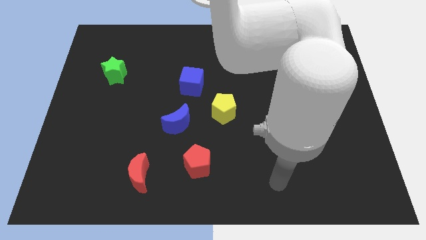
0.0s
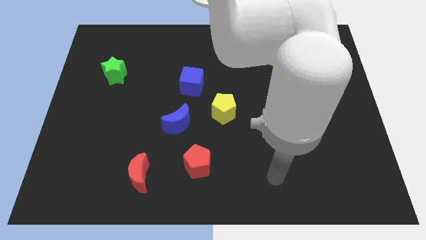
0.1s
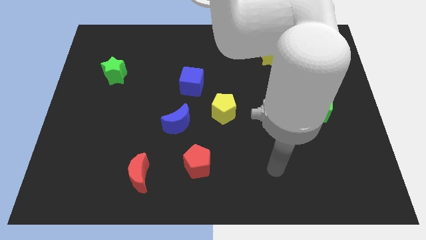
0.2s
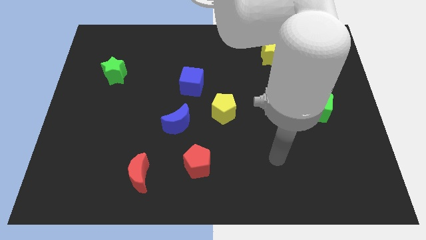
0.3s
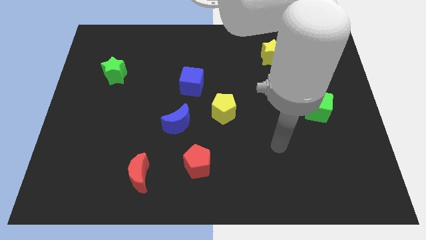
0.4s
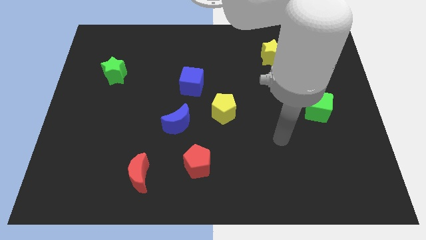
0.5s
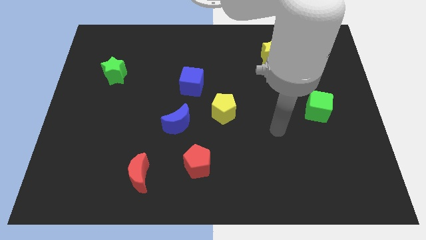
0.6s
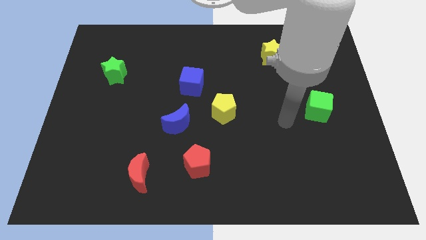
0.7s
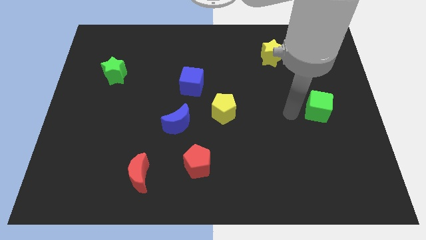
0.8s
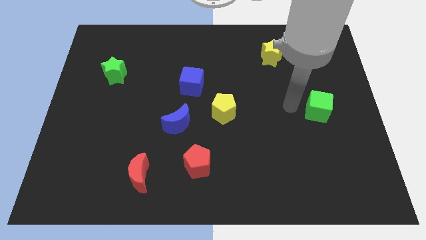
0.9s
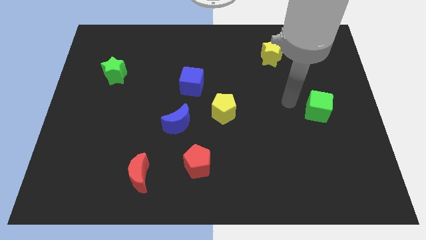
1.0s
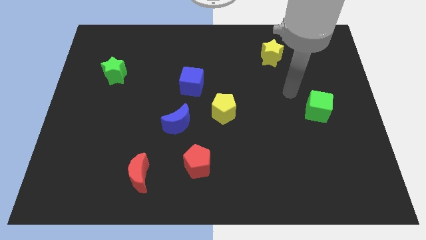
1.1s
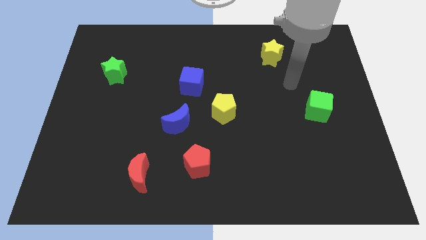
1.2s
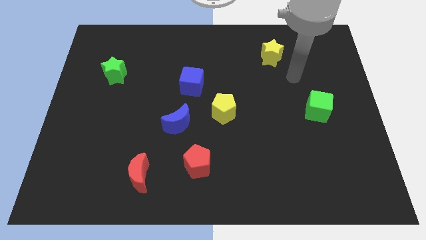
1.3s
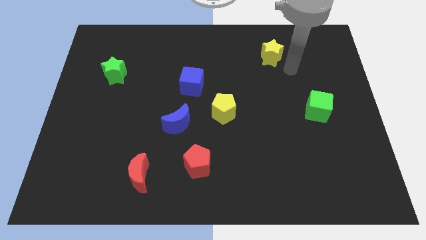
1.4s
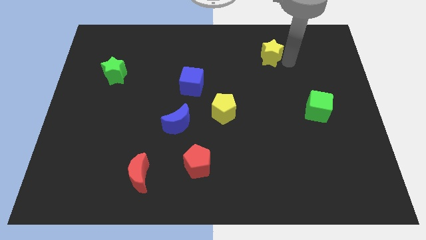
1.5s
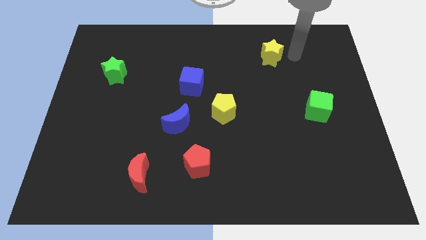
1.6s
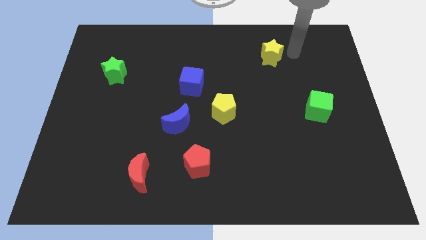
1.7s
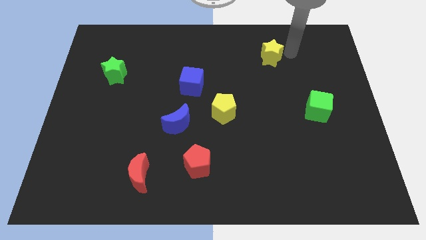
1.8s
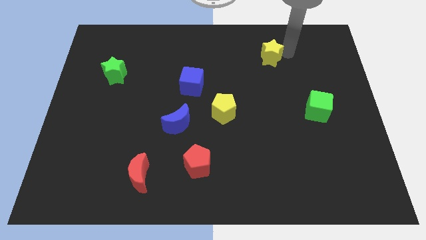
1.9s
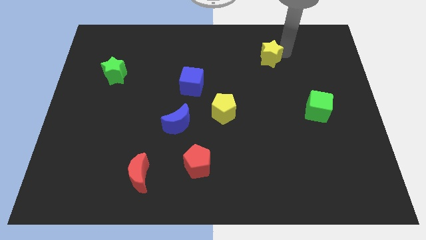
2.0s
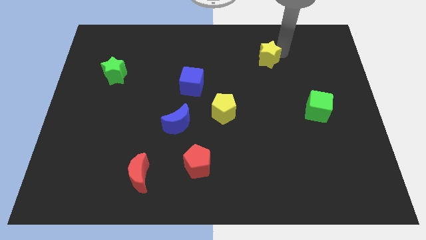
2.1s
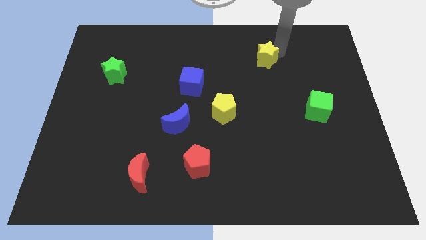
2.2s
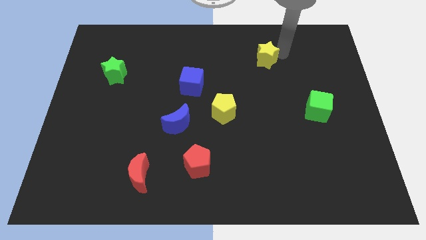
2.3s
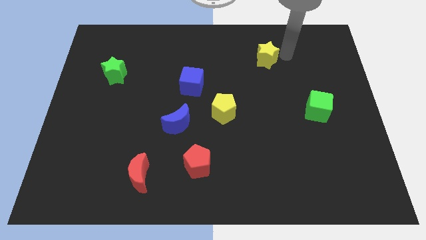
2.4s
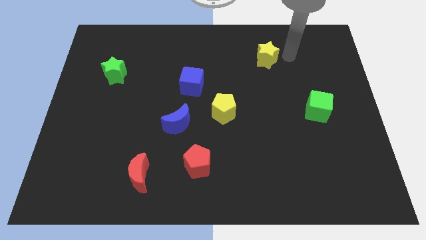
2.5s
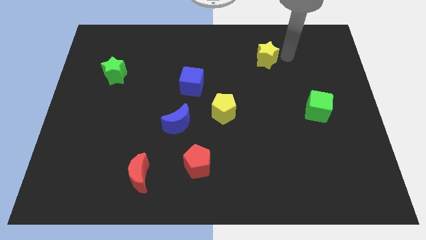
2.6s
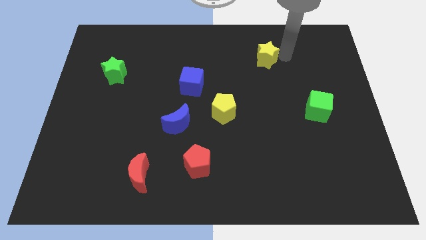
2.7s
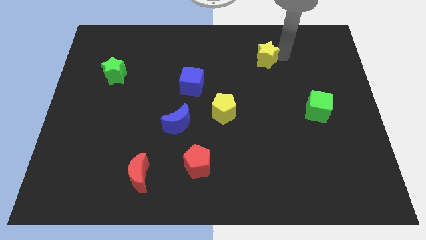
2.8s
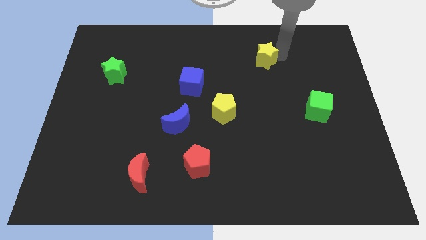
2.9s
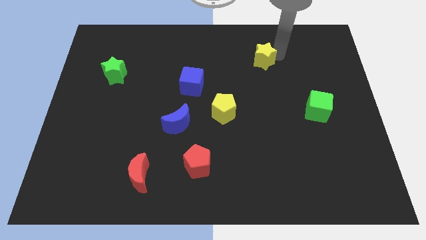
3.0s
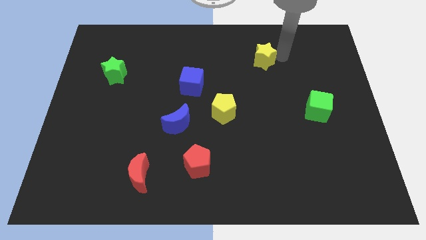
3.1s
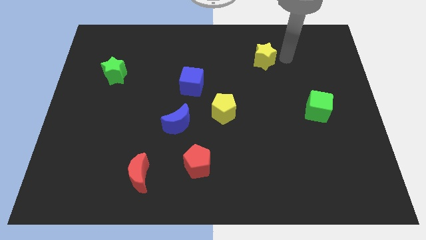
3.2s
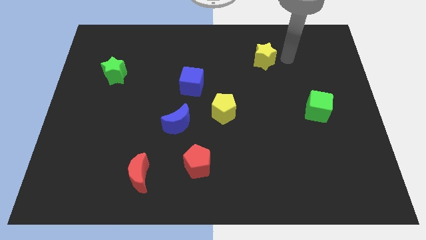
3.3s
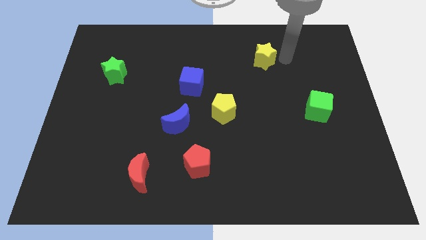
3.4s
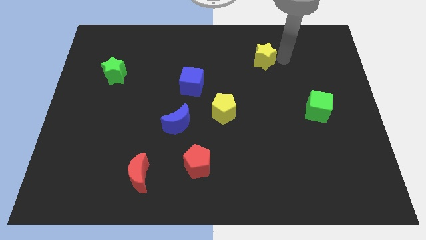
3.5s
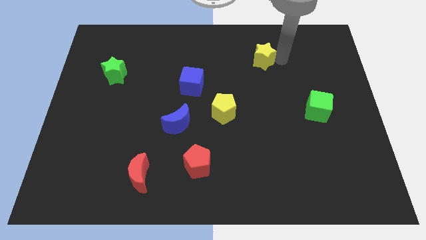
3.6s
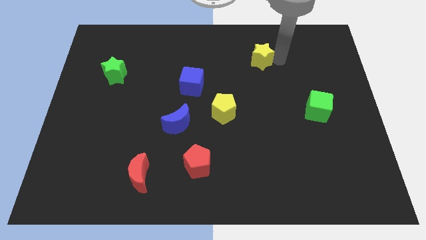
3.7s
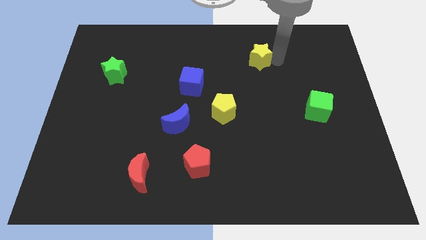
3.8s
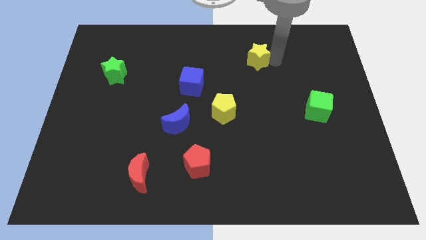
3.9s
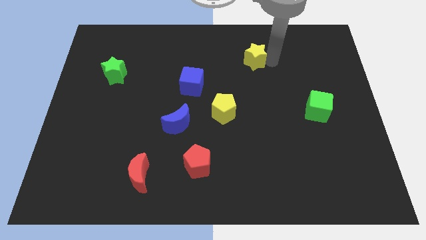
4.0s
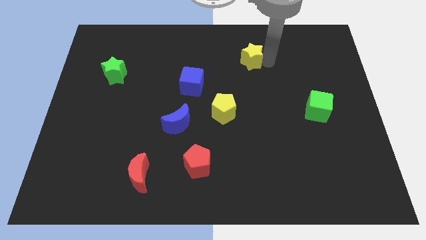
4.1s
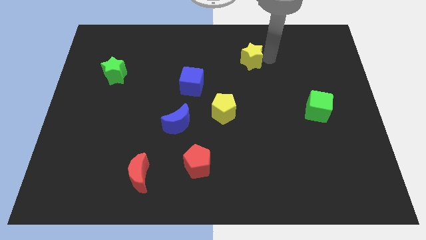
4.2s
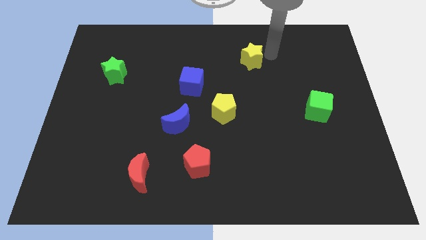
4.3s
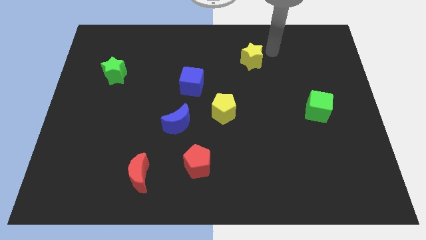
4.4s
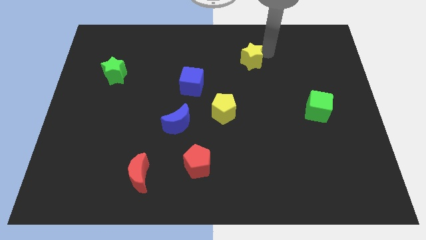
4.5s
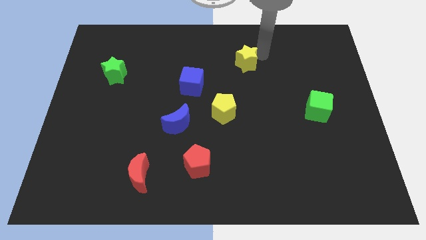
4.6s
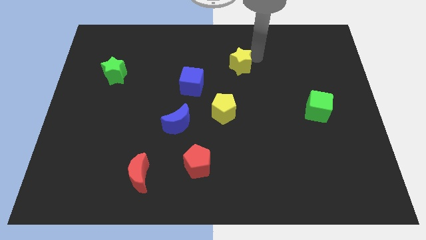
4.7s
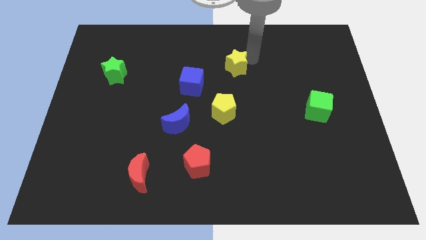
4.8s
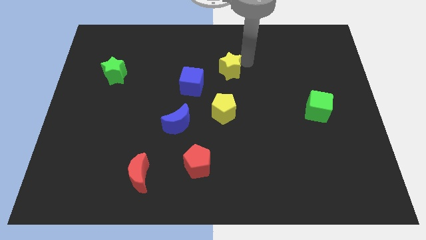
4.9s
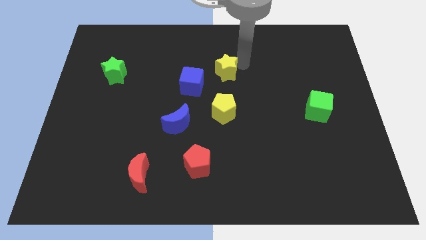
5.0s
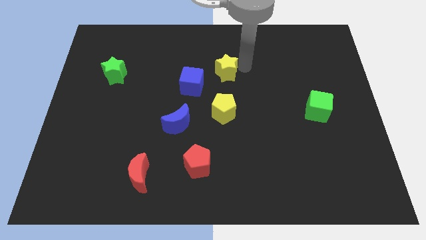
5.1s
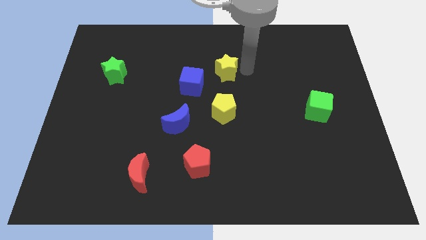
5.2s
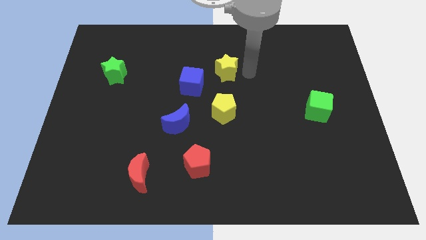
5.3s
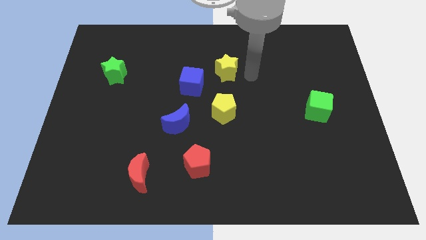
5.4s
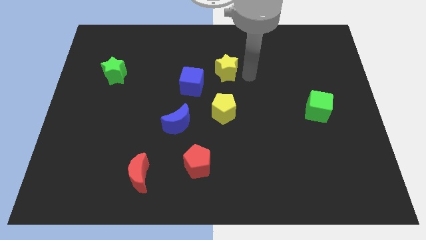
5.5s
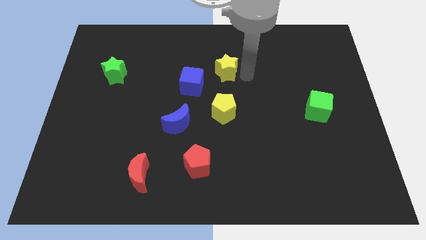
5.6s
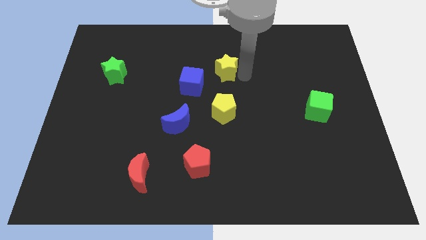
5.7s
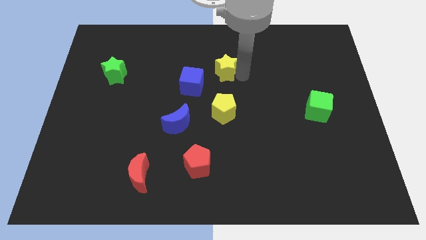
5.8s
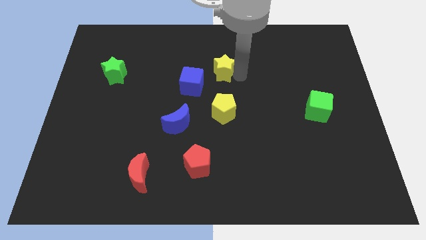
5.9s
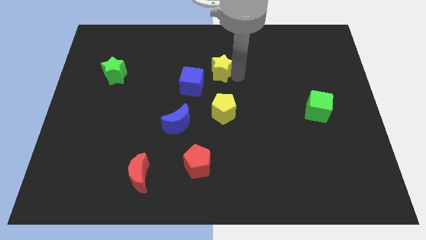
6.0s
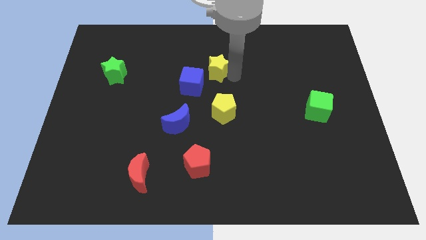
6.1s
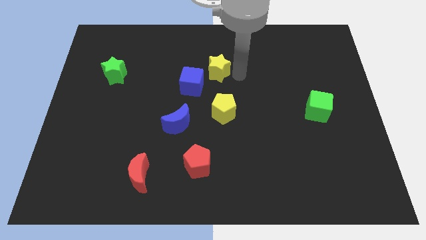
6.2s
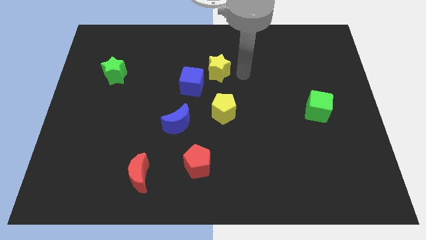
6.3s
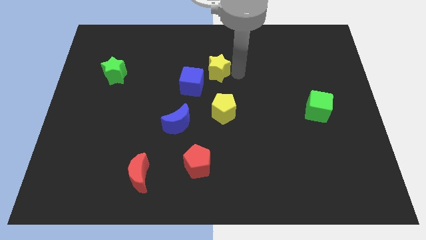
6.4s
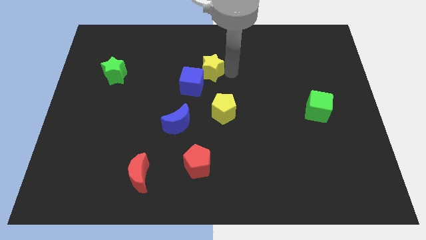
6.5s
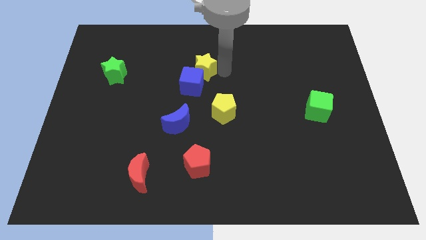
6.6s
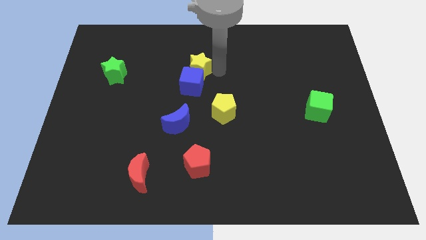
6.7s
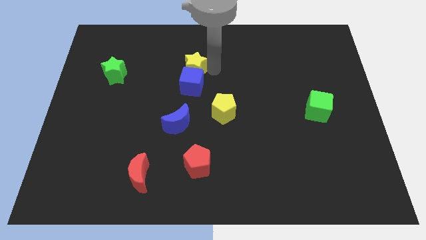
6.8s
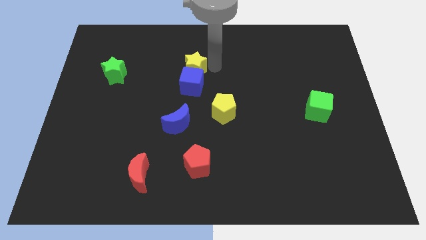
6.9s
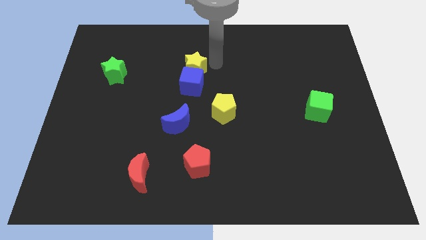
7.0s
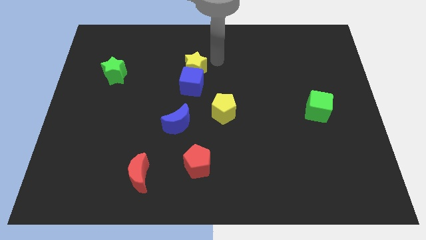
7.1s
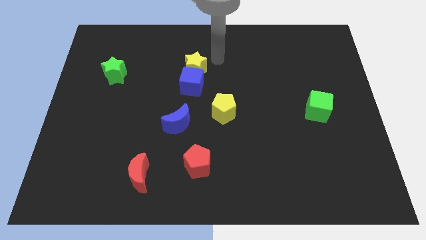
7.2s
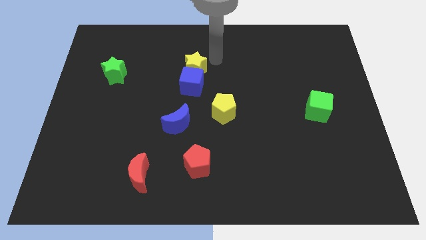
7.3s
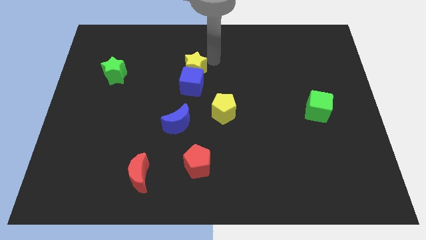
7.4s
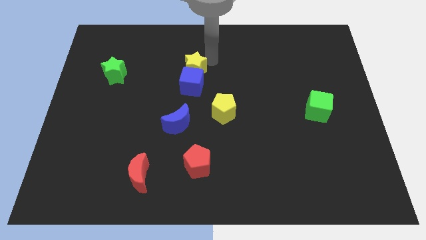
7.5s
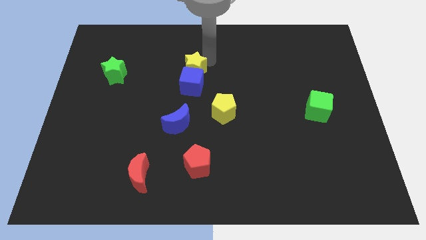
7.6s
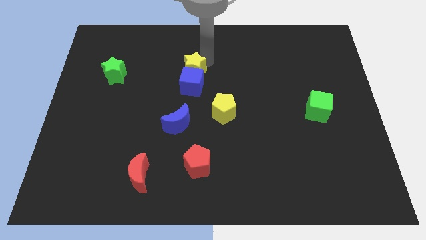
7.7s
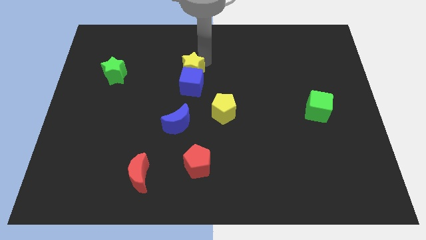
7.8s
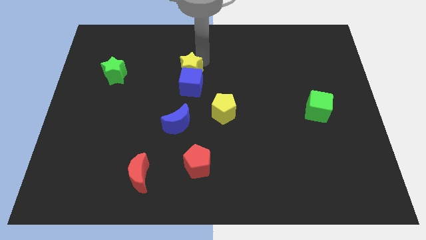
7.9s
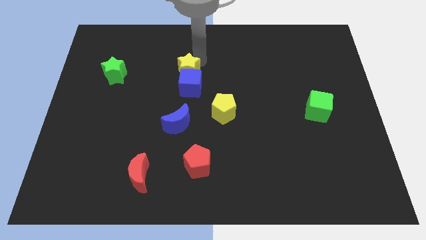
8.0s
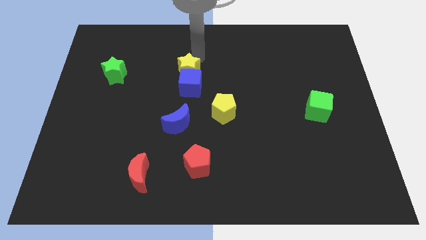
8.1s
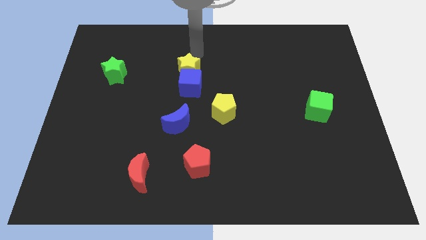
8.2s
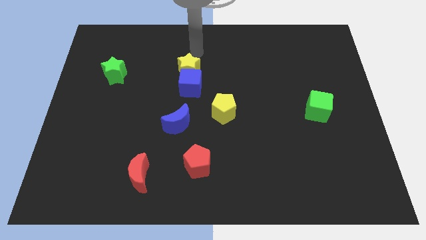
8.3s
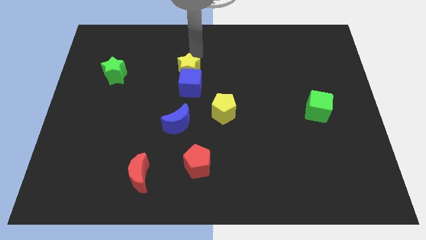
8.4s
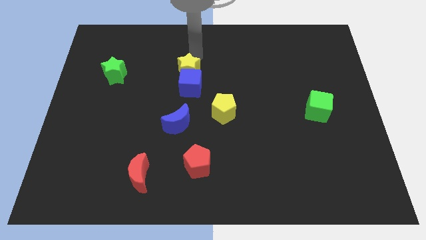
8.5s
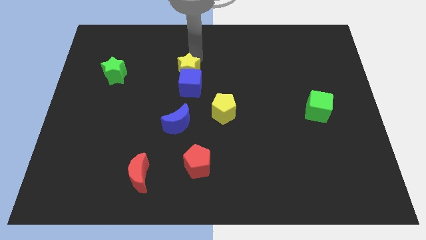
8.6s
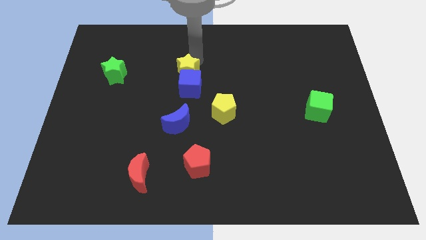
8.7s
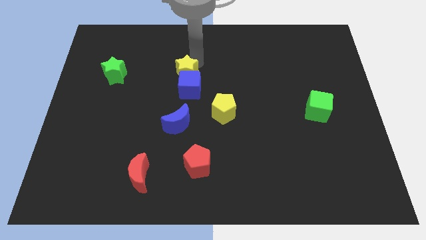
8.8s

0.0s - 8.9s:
put the yellow star to the top side of the blue moon
